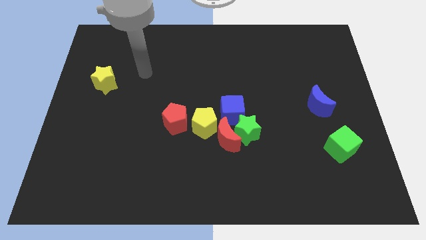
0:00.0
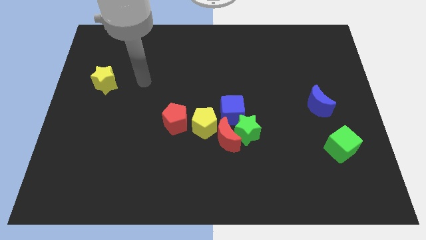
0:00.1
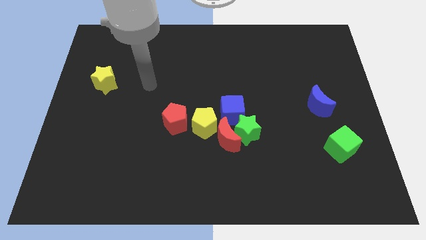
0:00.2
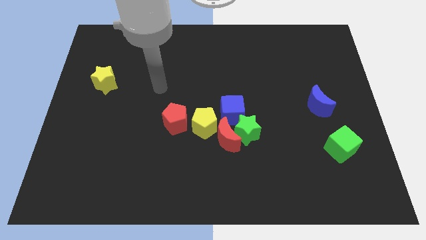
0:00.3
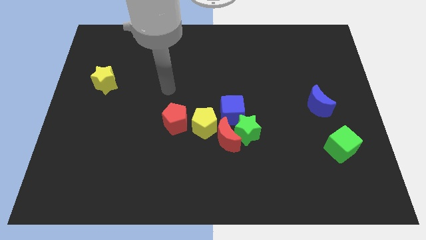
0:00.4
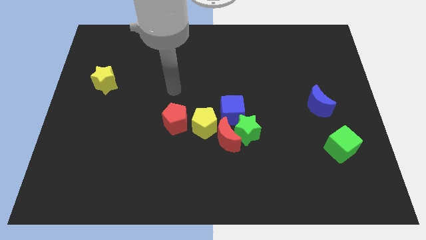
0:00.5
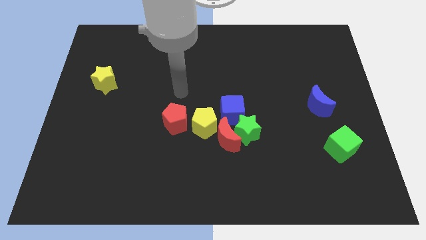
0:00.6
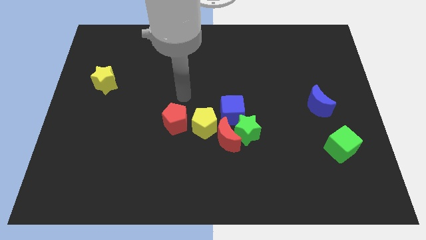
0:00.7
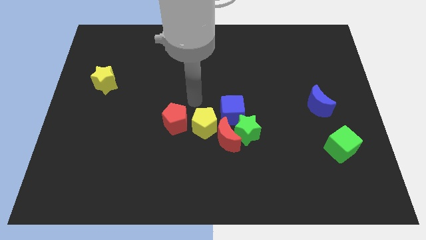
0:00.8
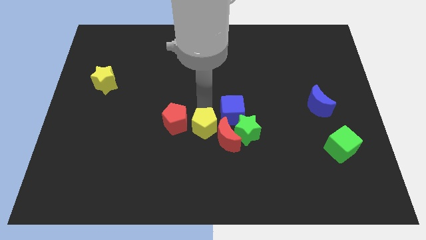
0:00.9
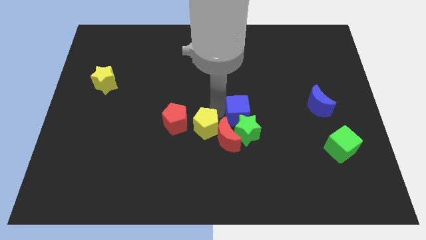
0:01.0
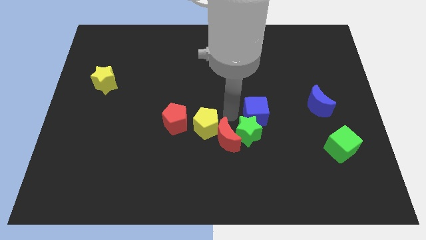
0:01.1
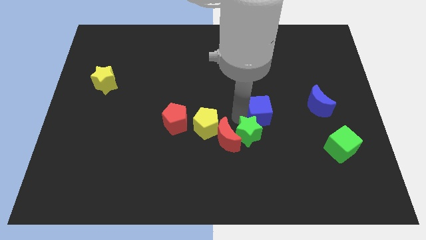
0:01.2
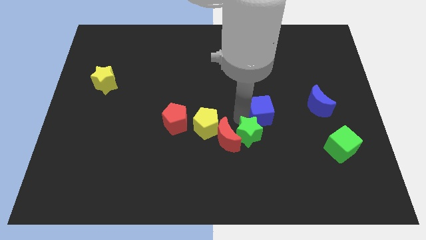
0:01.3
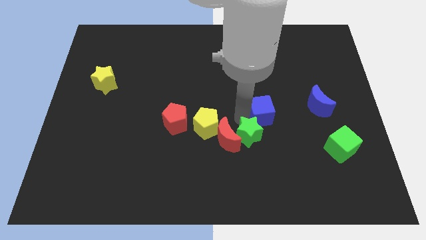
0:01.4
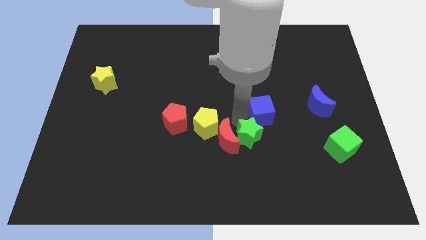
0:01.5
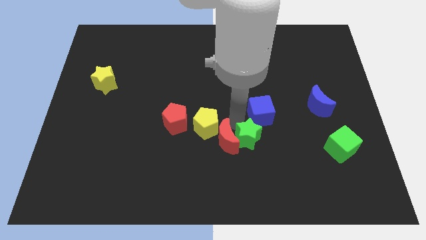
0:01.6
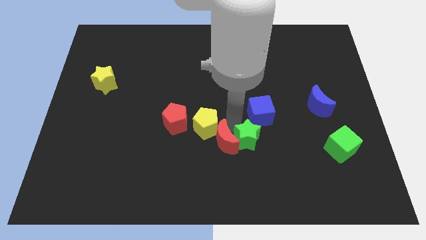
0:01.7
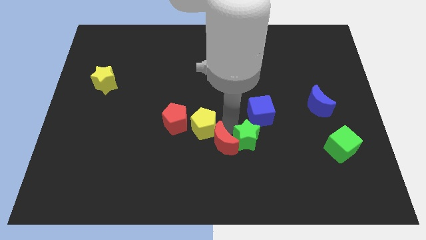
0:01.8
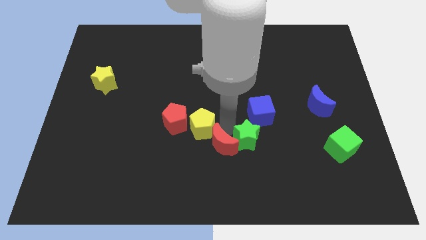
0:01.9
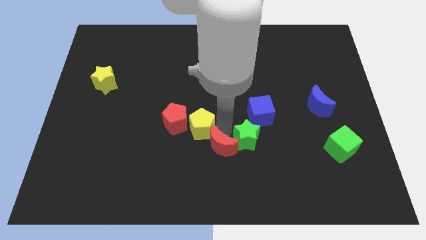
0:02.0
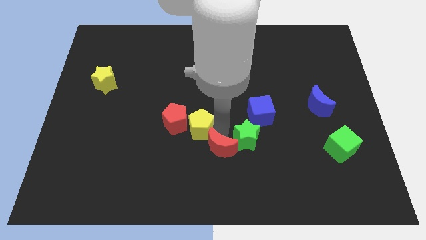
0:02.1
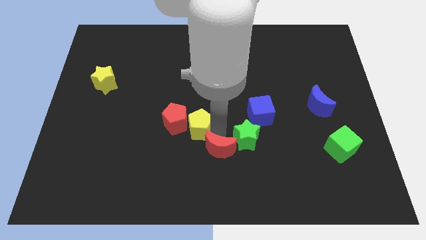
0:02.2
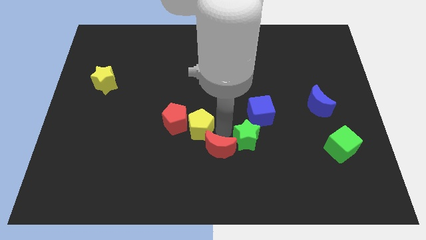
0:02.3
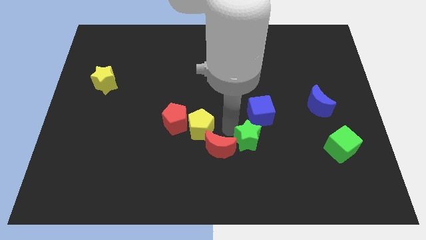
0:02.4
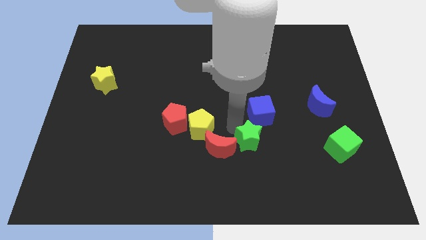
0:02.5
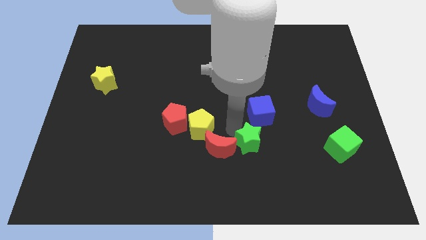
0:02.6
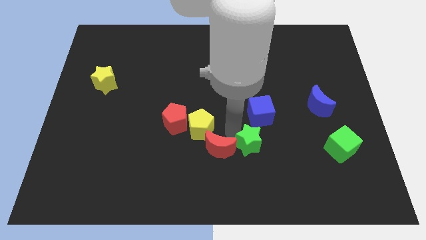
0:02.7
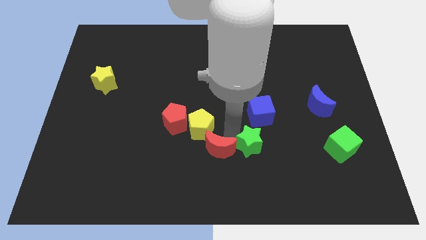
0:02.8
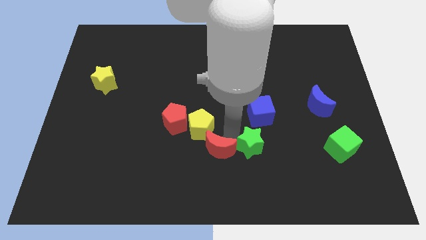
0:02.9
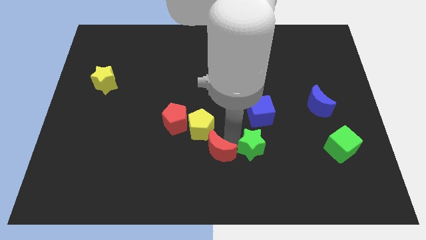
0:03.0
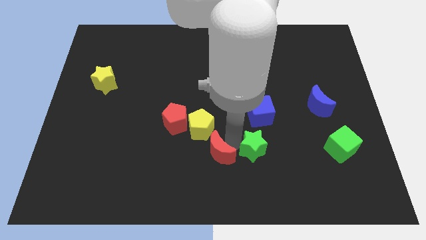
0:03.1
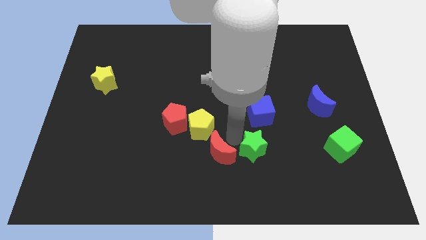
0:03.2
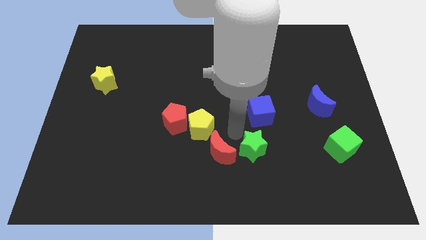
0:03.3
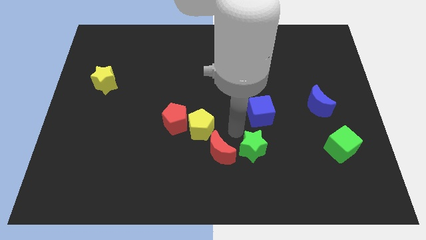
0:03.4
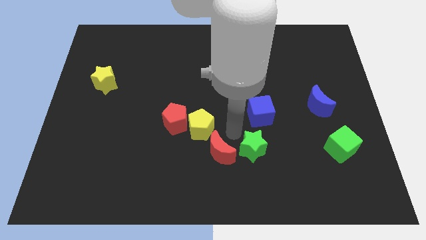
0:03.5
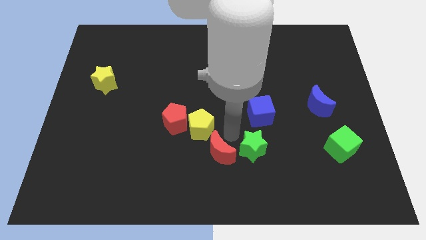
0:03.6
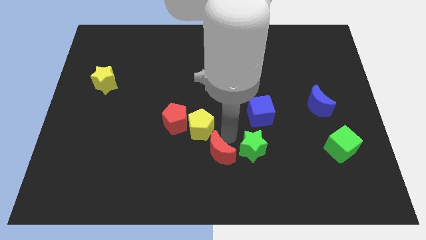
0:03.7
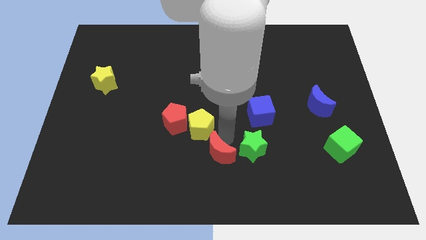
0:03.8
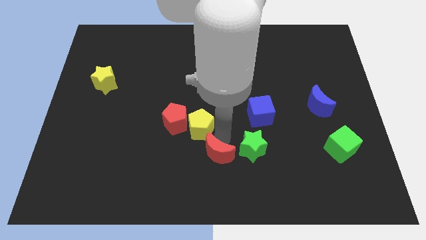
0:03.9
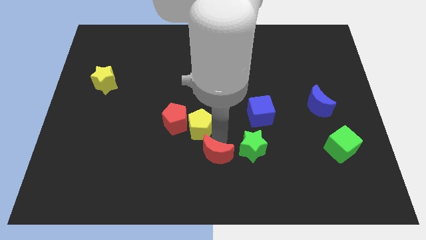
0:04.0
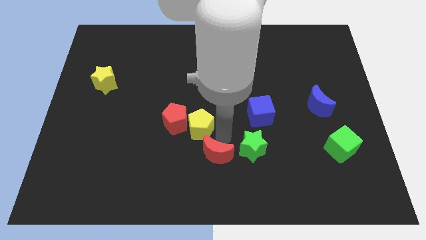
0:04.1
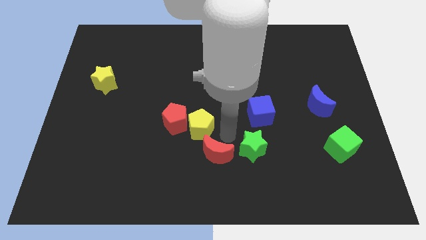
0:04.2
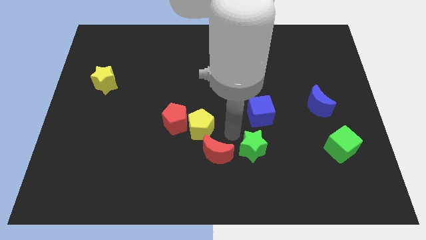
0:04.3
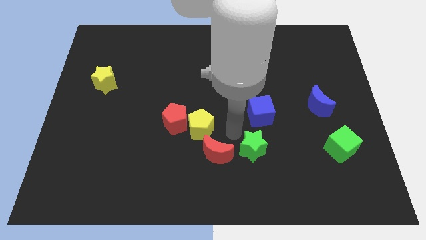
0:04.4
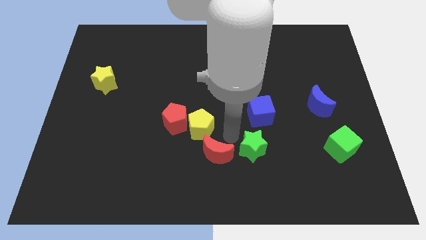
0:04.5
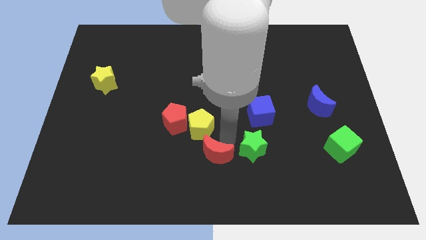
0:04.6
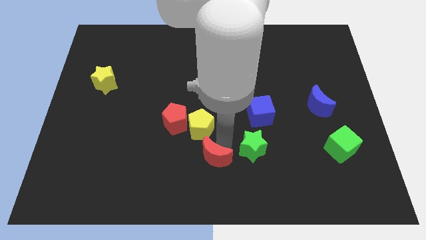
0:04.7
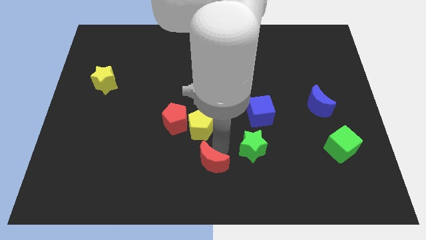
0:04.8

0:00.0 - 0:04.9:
pull the red moon apart from the clump

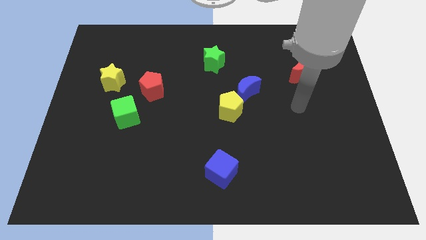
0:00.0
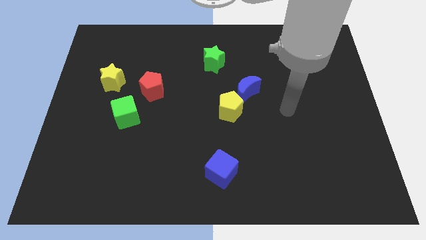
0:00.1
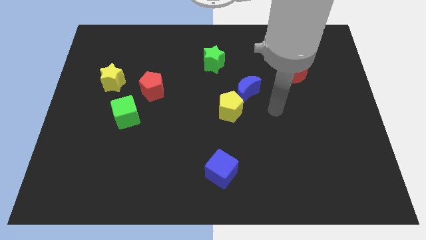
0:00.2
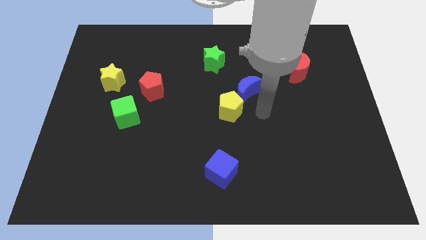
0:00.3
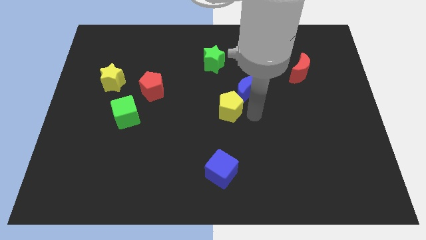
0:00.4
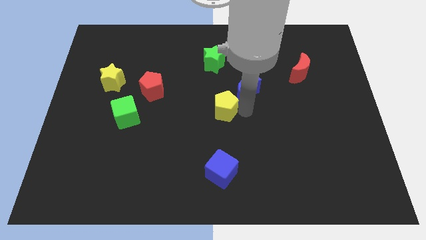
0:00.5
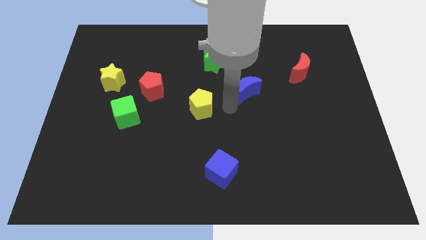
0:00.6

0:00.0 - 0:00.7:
pull the blue moon apart from the yellow pentagon

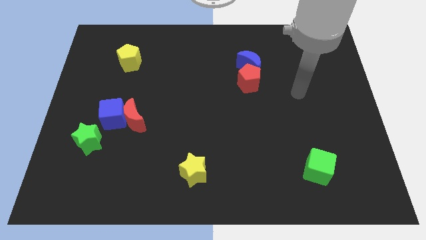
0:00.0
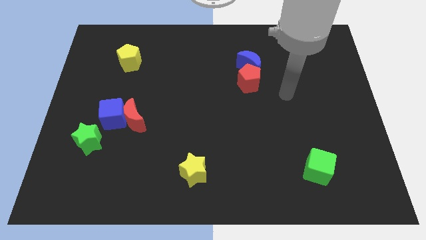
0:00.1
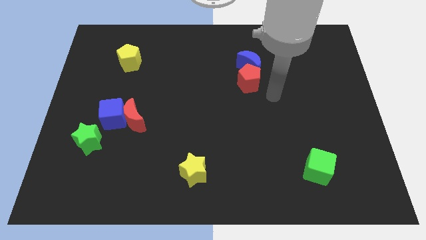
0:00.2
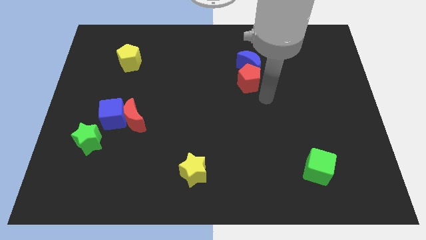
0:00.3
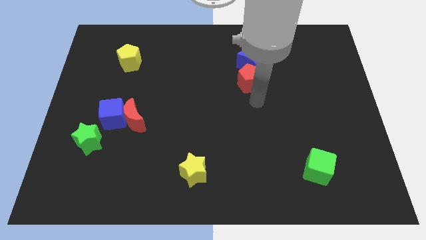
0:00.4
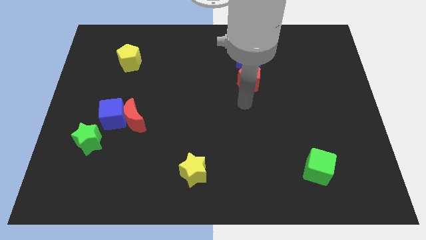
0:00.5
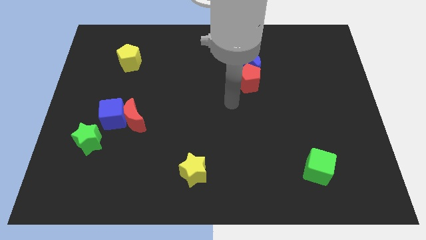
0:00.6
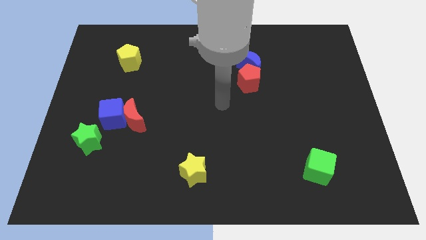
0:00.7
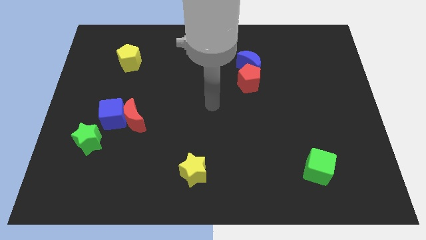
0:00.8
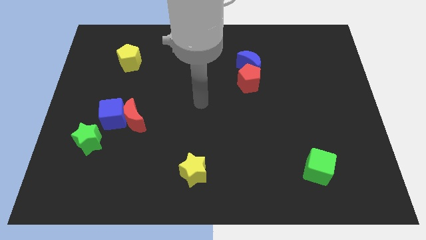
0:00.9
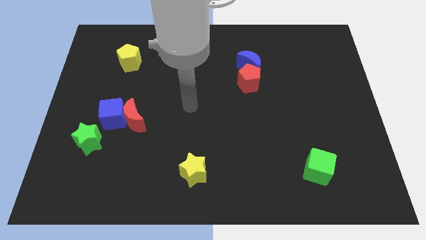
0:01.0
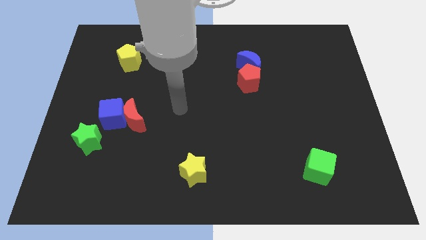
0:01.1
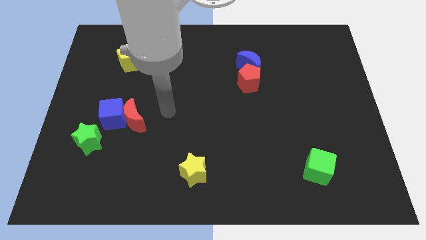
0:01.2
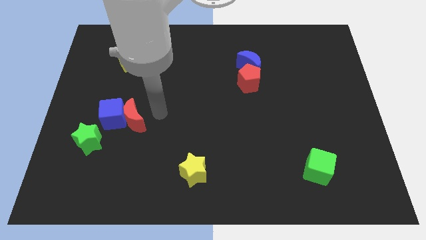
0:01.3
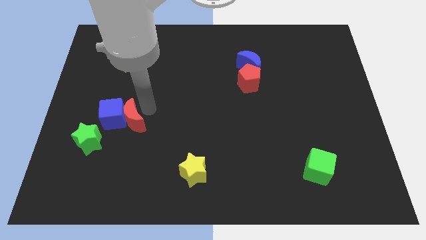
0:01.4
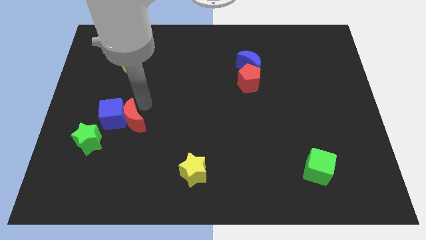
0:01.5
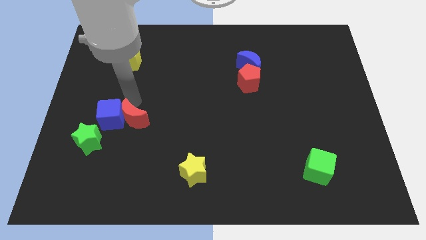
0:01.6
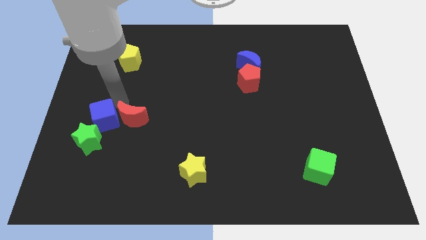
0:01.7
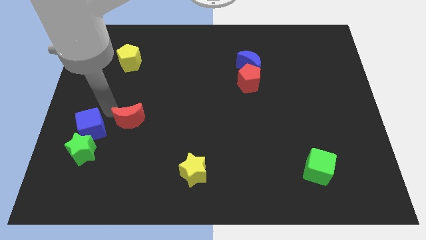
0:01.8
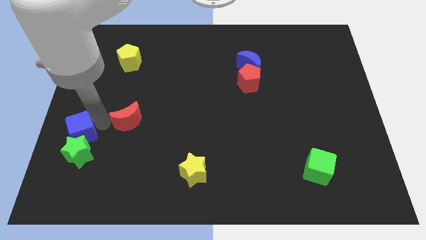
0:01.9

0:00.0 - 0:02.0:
move the red moon away from the blue cube

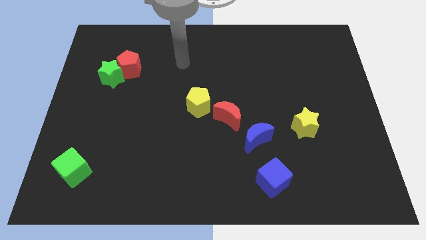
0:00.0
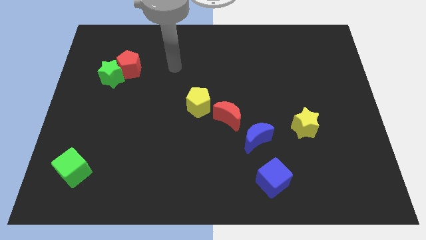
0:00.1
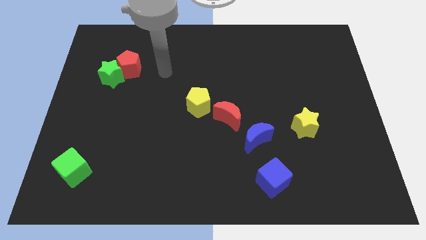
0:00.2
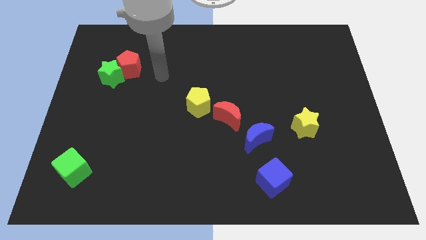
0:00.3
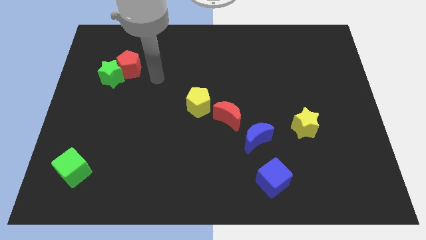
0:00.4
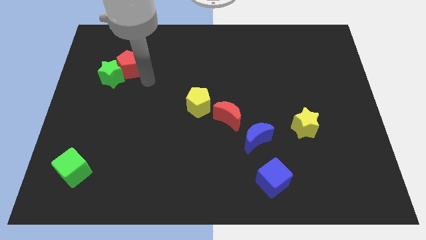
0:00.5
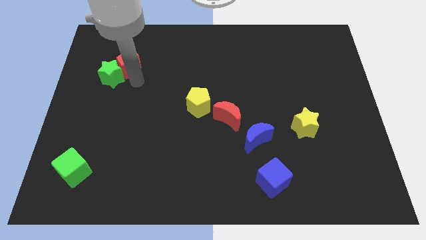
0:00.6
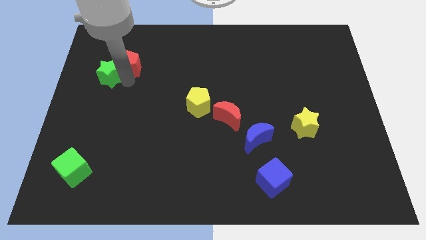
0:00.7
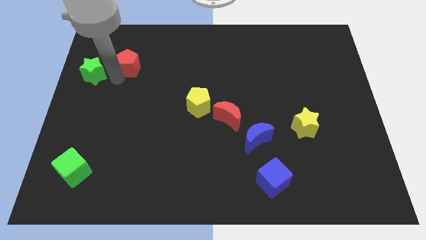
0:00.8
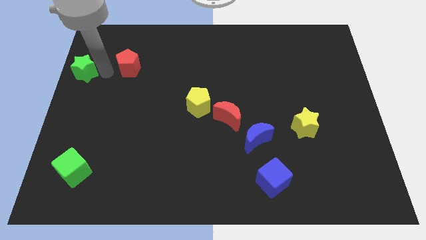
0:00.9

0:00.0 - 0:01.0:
move the red pentagon away from the green star

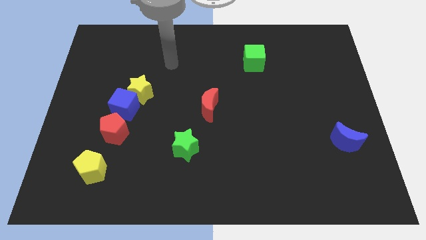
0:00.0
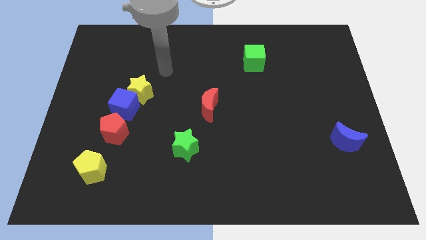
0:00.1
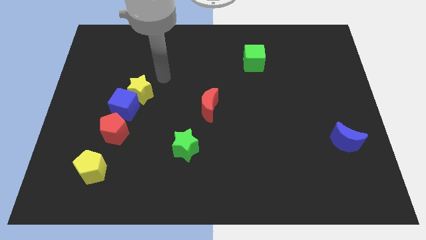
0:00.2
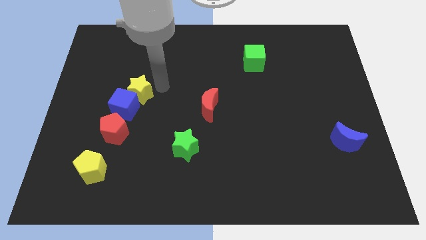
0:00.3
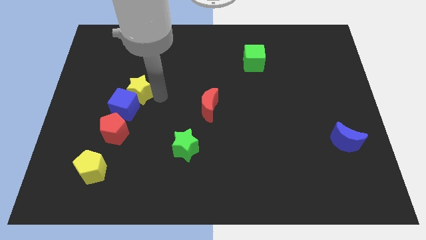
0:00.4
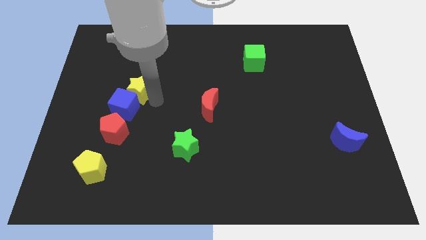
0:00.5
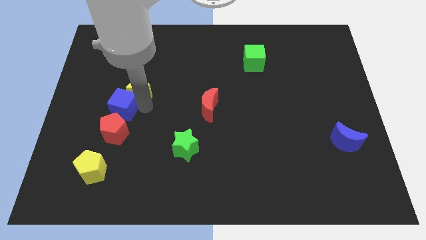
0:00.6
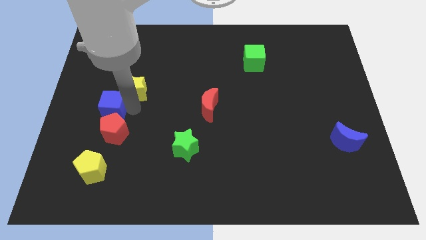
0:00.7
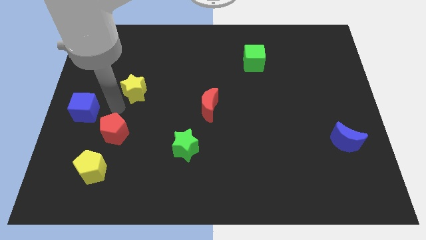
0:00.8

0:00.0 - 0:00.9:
separate the yellow star from the blue cube
